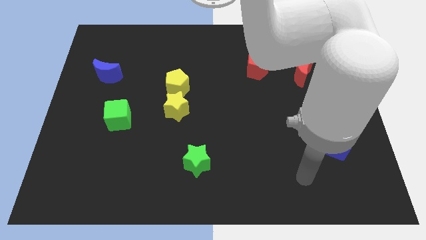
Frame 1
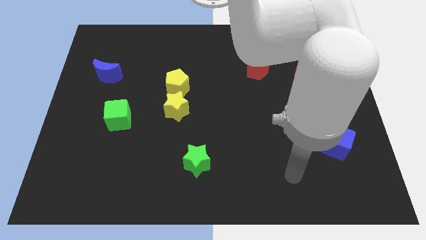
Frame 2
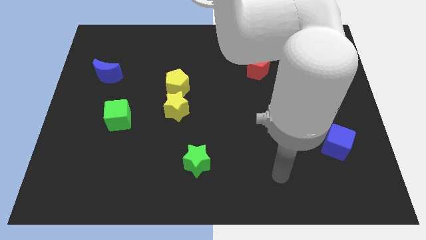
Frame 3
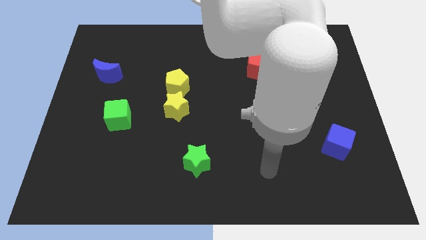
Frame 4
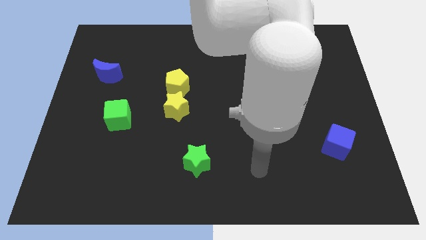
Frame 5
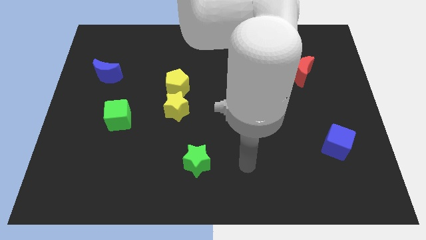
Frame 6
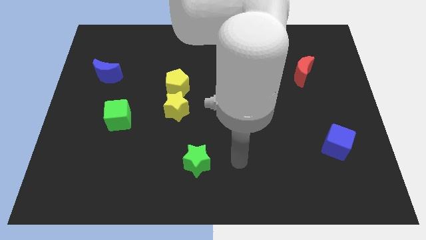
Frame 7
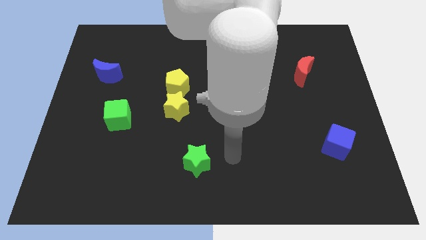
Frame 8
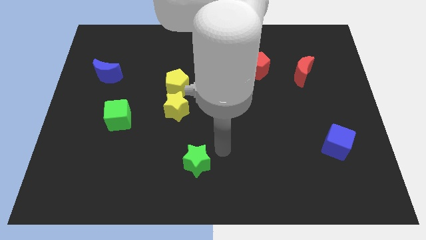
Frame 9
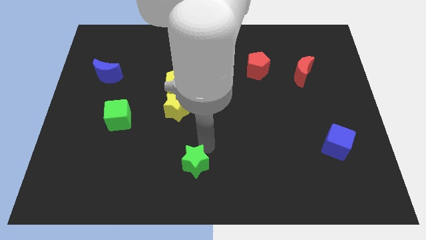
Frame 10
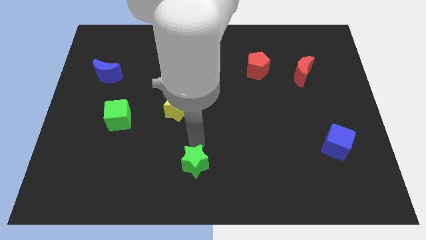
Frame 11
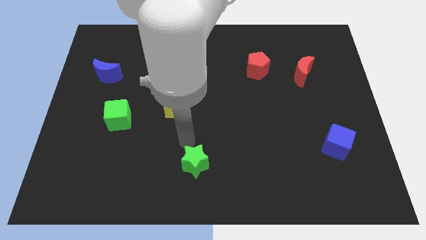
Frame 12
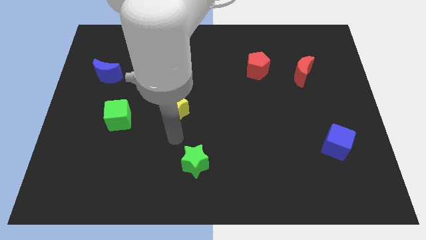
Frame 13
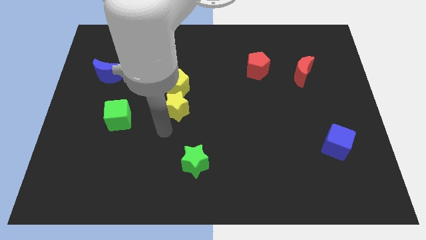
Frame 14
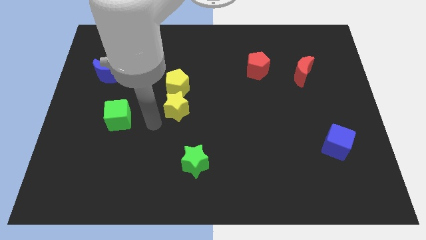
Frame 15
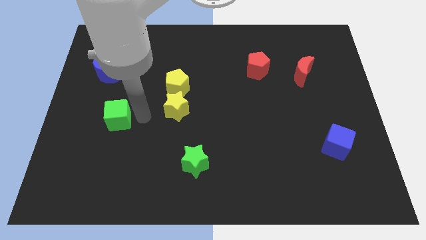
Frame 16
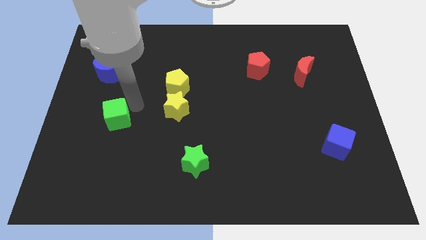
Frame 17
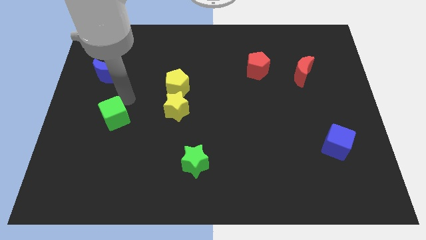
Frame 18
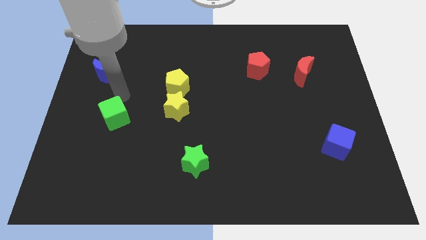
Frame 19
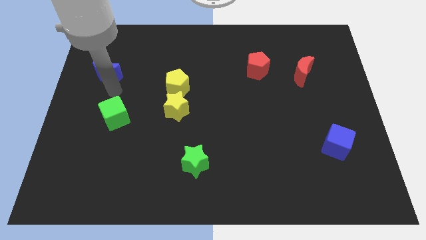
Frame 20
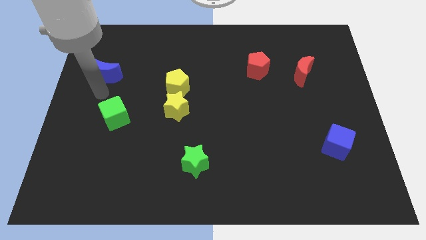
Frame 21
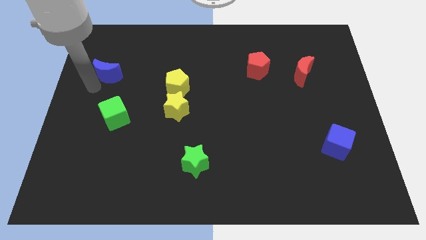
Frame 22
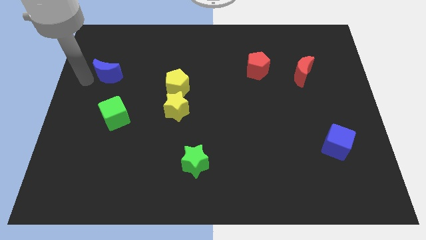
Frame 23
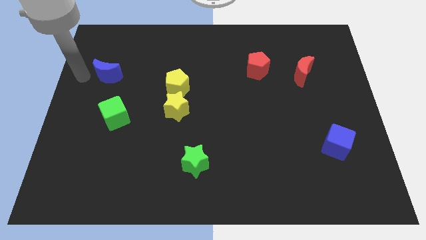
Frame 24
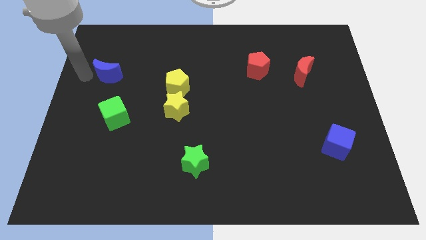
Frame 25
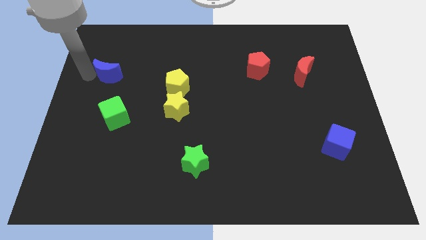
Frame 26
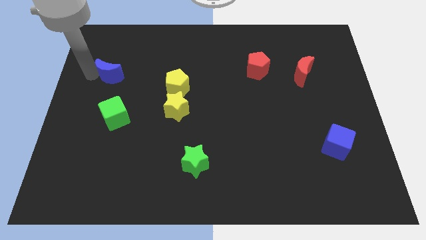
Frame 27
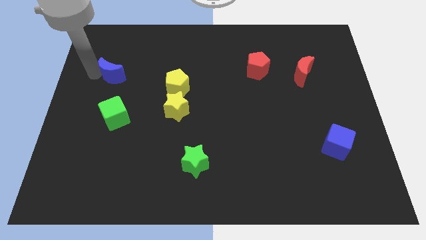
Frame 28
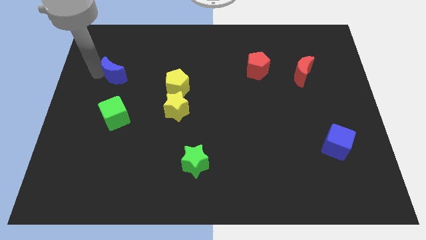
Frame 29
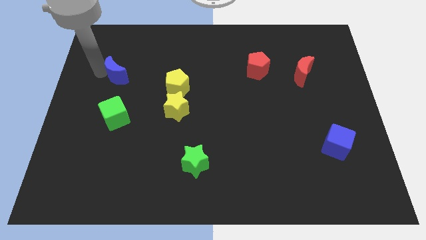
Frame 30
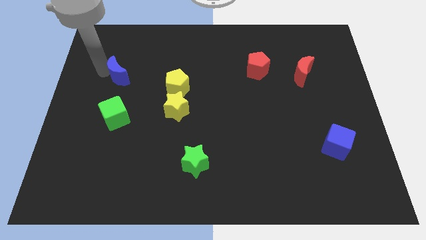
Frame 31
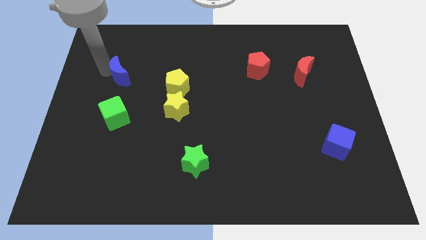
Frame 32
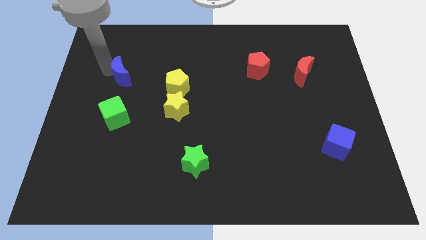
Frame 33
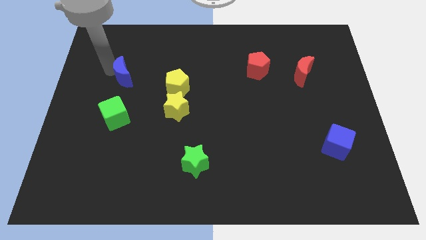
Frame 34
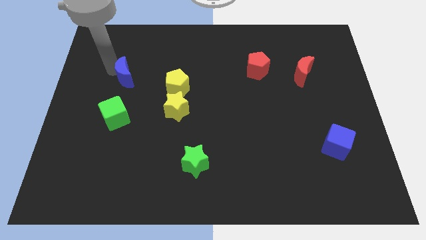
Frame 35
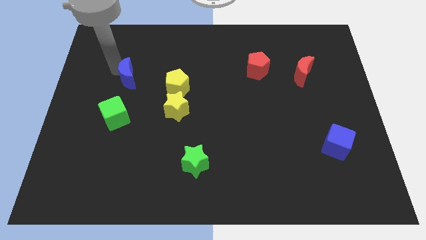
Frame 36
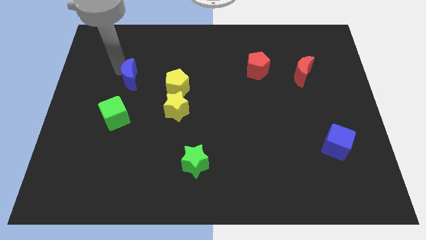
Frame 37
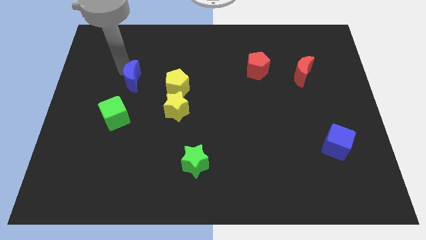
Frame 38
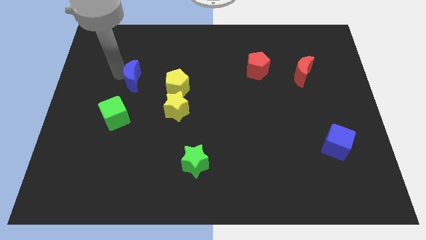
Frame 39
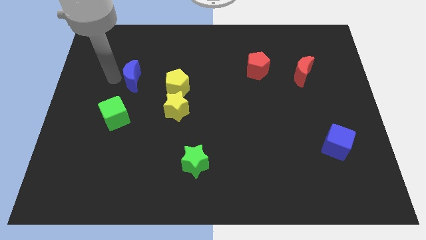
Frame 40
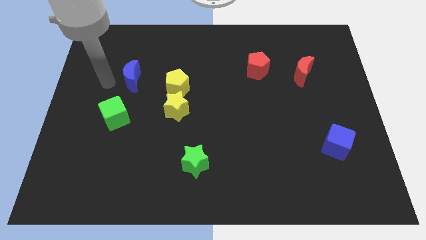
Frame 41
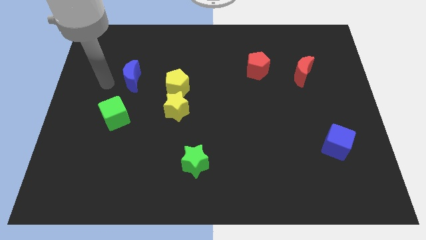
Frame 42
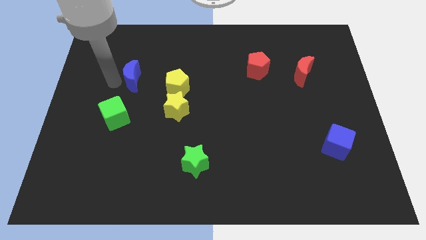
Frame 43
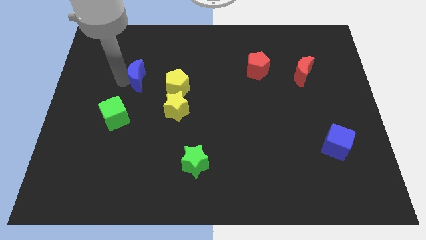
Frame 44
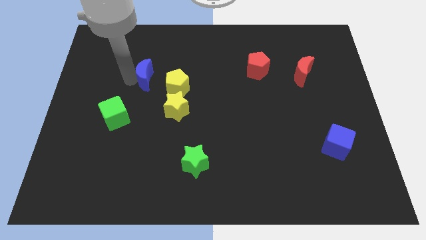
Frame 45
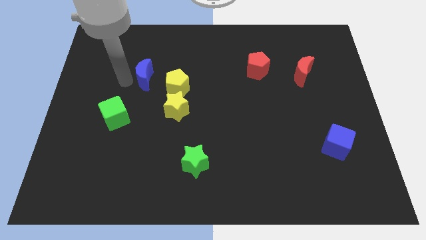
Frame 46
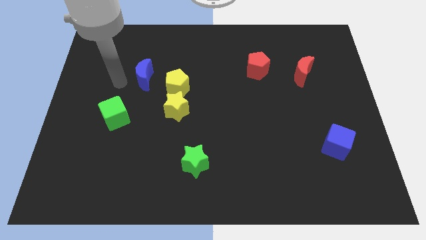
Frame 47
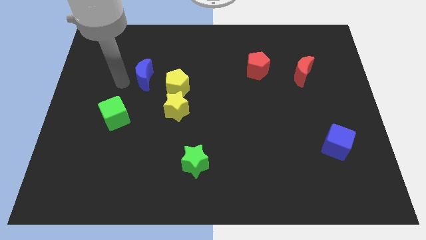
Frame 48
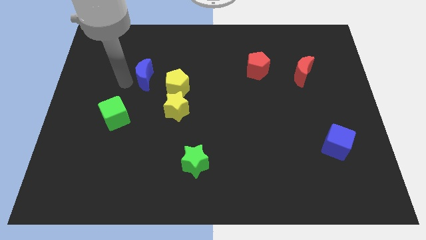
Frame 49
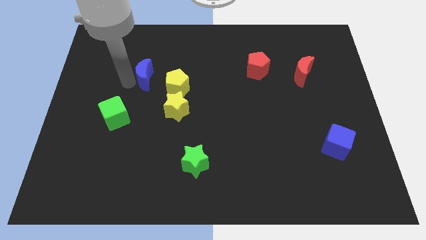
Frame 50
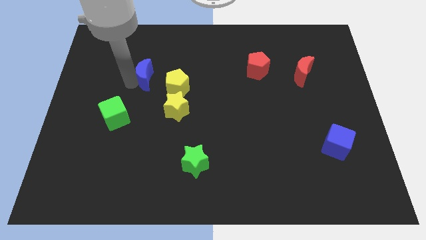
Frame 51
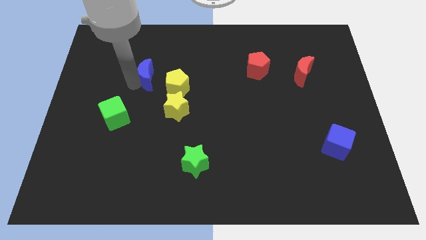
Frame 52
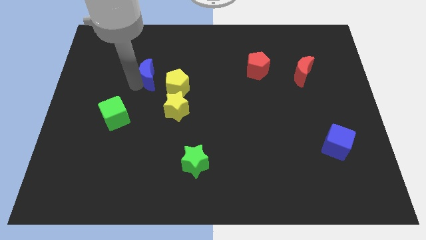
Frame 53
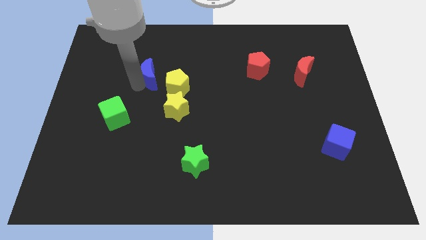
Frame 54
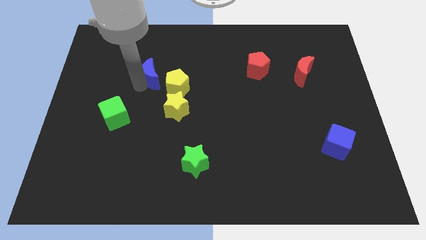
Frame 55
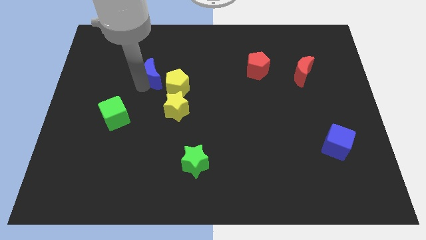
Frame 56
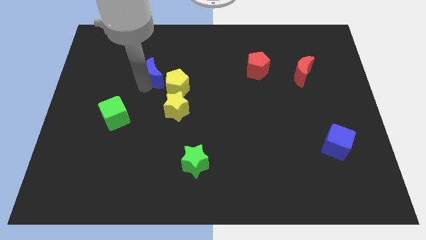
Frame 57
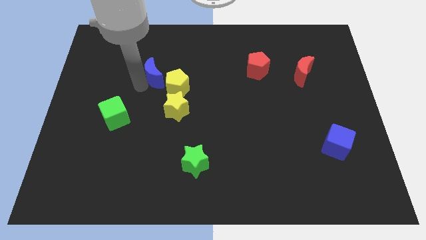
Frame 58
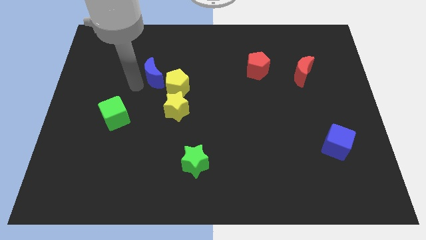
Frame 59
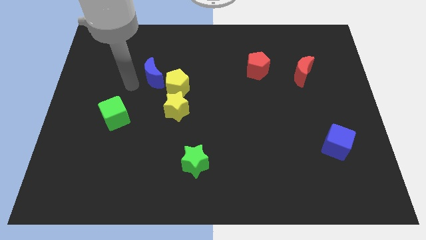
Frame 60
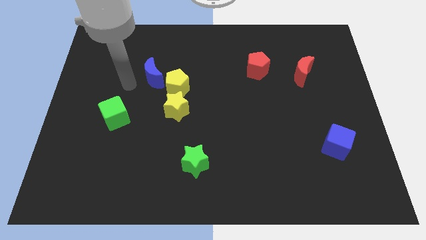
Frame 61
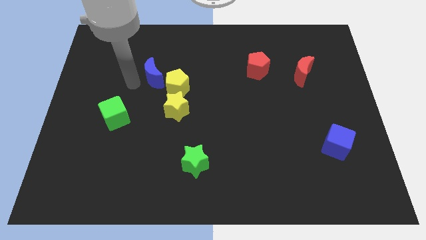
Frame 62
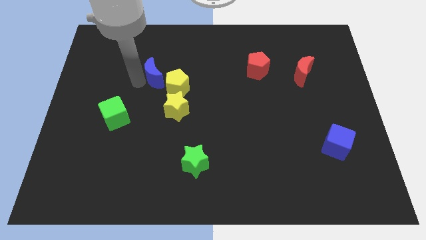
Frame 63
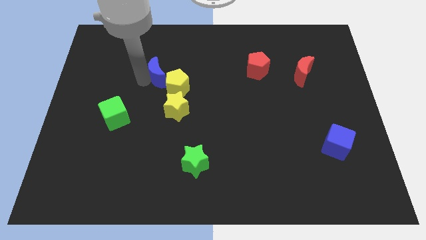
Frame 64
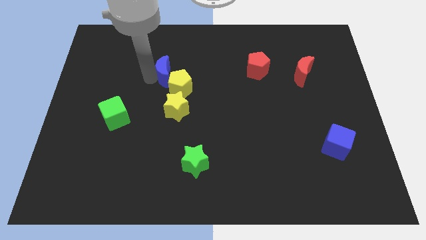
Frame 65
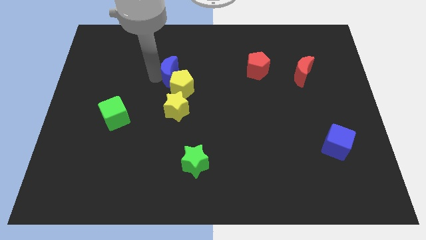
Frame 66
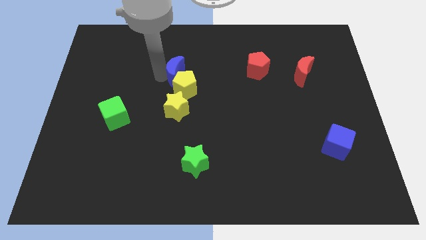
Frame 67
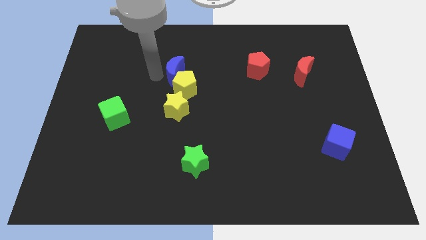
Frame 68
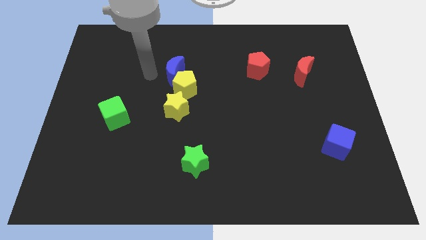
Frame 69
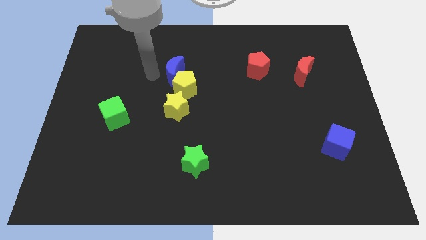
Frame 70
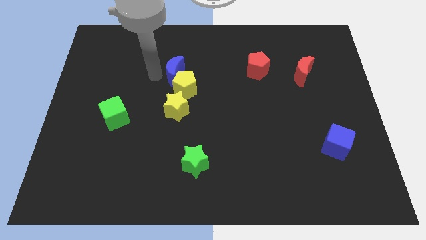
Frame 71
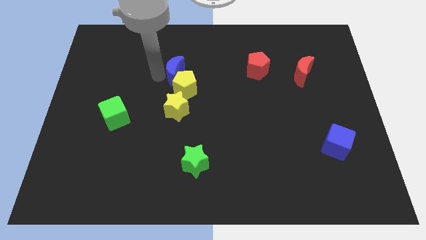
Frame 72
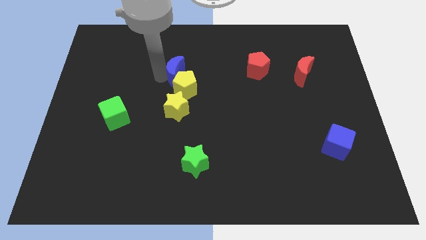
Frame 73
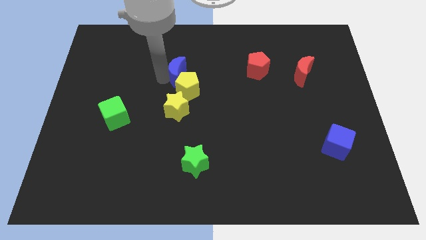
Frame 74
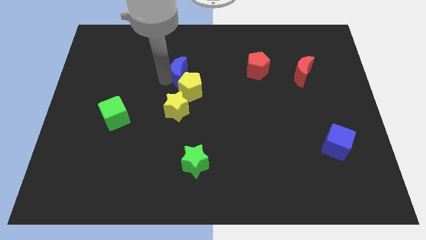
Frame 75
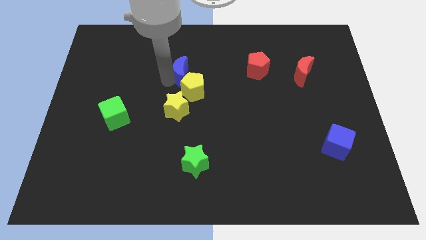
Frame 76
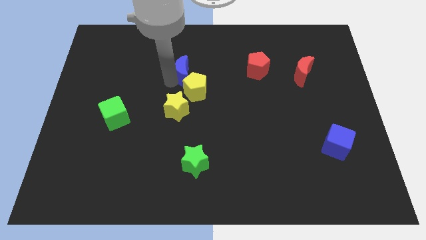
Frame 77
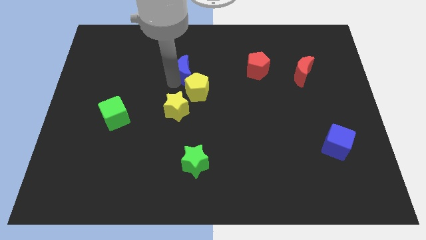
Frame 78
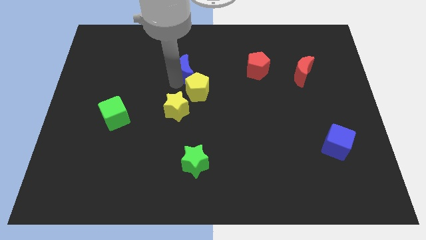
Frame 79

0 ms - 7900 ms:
push the blue moon right

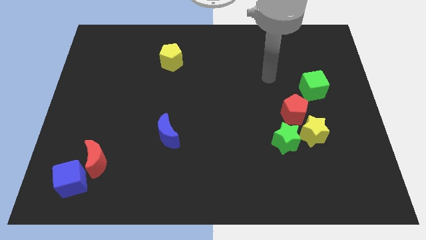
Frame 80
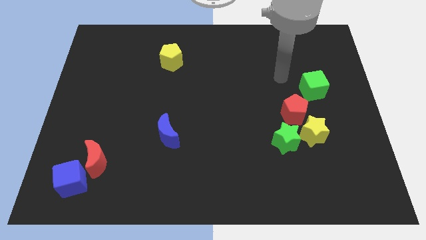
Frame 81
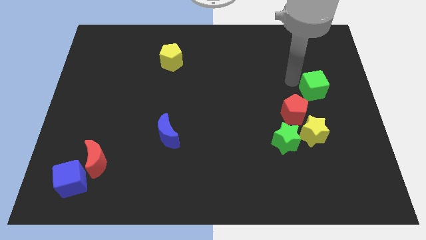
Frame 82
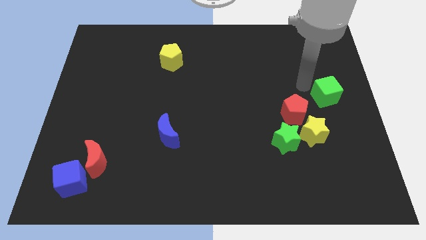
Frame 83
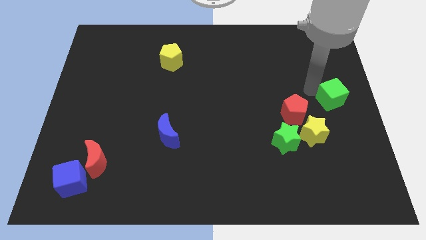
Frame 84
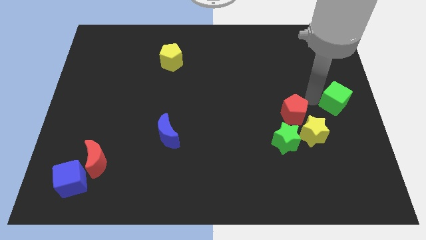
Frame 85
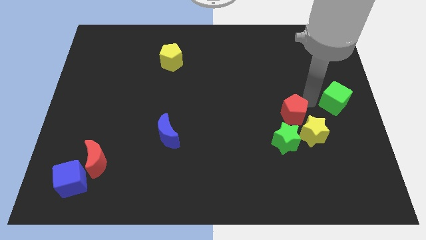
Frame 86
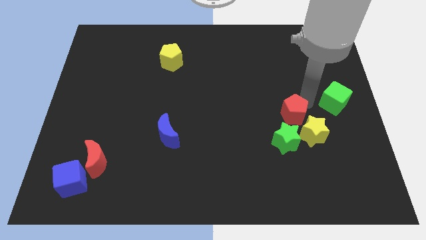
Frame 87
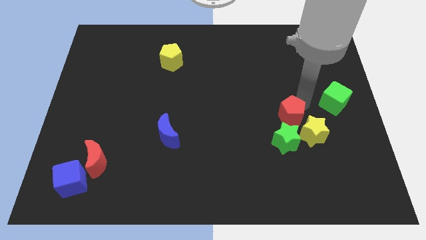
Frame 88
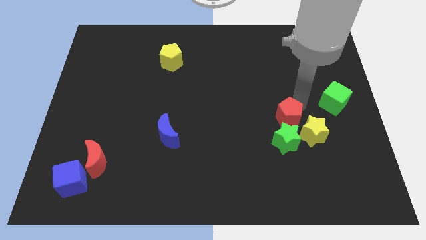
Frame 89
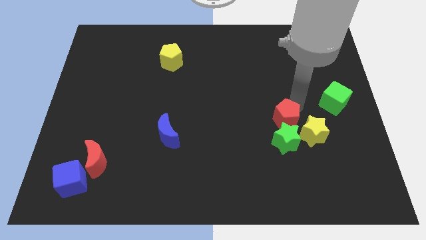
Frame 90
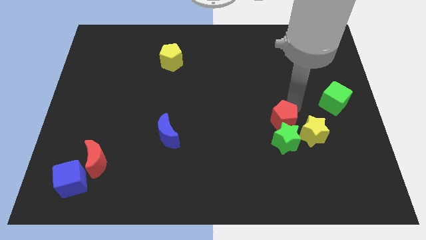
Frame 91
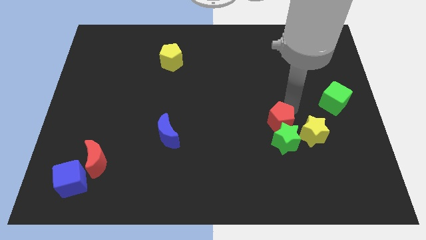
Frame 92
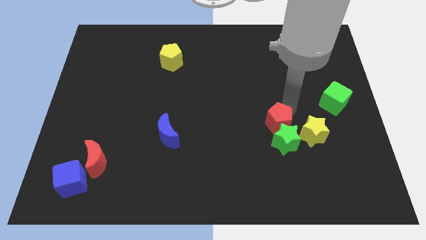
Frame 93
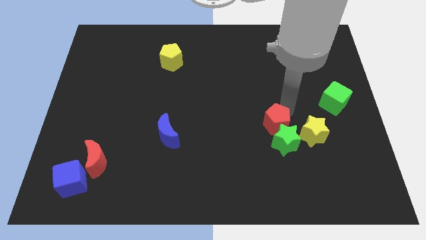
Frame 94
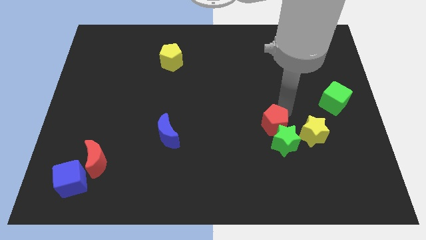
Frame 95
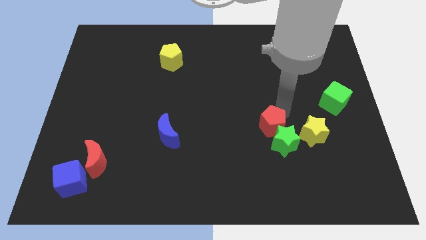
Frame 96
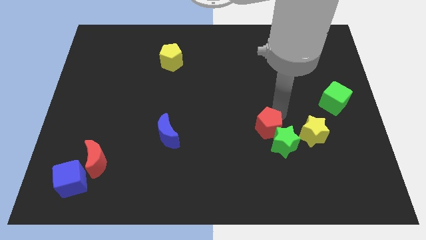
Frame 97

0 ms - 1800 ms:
slightly move the red pentagon down and to the left
